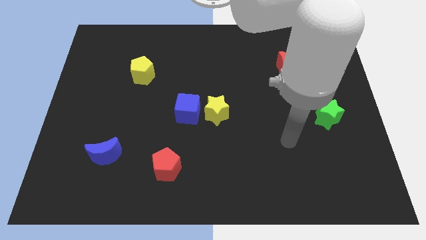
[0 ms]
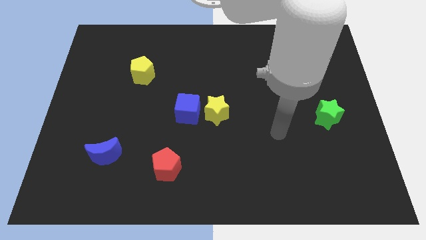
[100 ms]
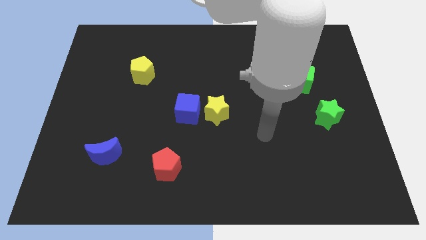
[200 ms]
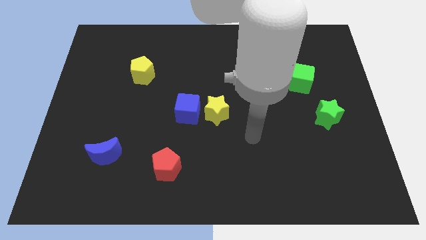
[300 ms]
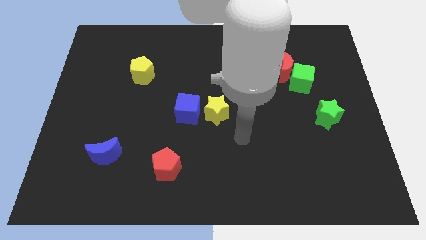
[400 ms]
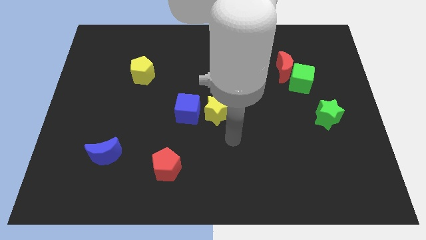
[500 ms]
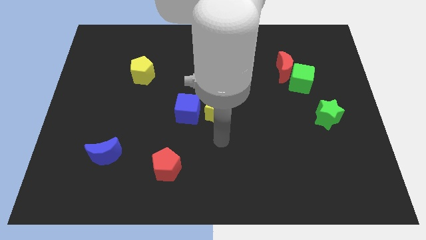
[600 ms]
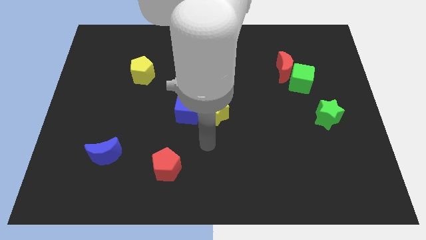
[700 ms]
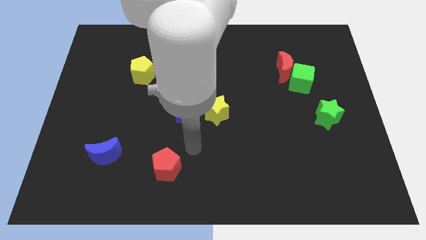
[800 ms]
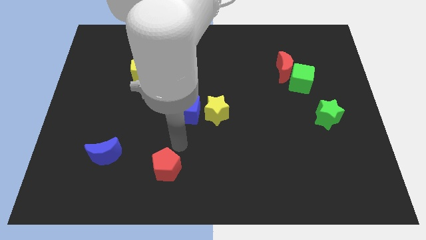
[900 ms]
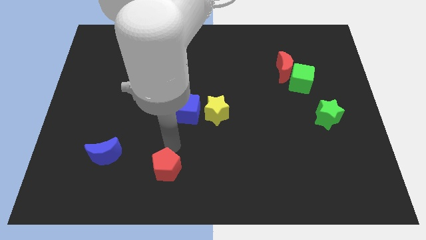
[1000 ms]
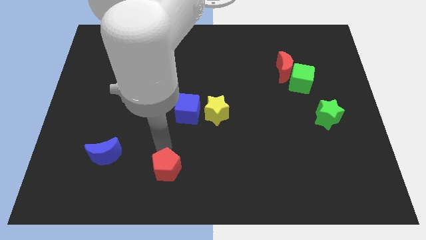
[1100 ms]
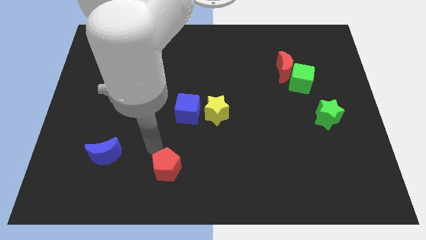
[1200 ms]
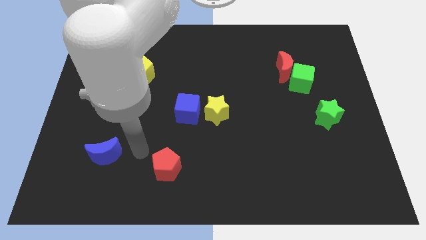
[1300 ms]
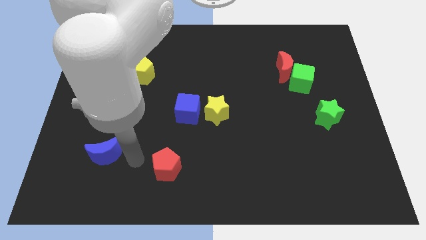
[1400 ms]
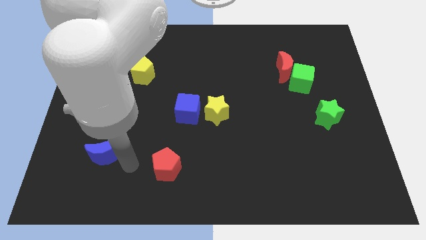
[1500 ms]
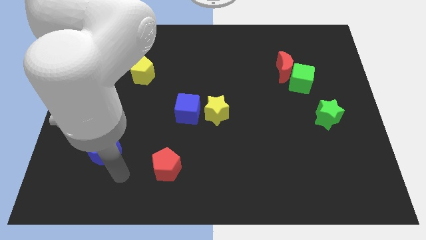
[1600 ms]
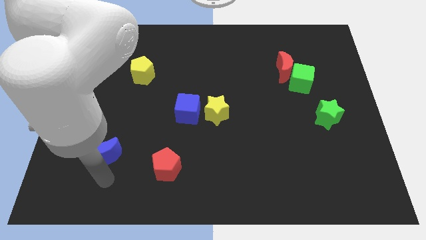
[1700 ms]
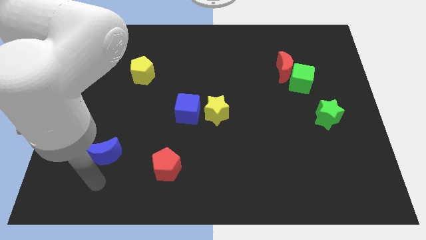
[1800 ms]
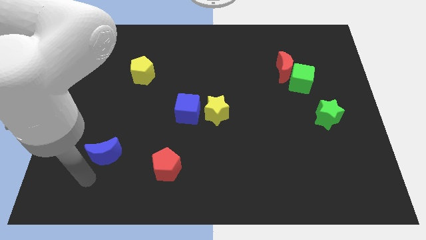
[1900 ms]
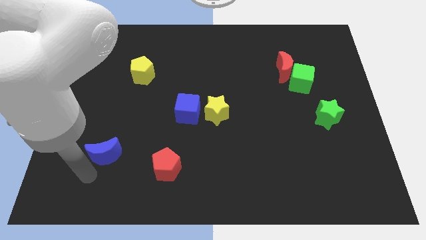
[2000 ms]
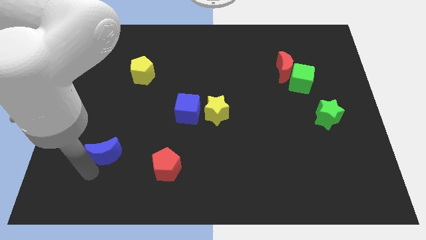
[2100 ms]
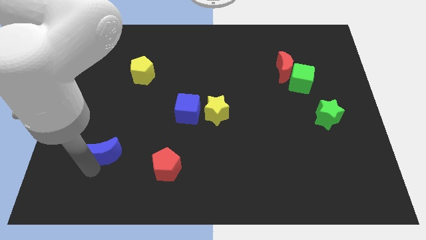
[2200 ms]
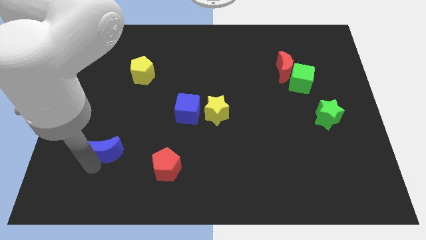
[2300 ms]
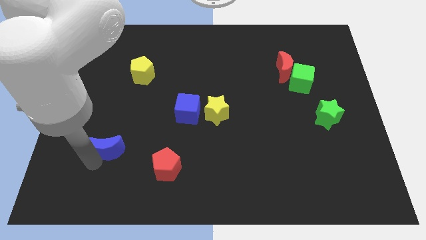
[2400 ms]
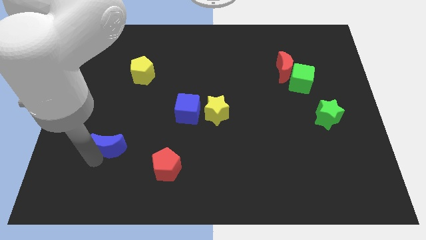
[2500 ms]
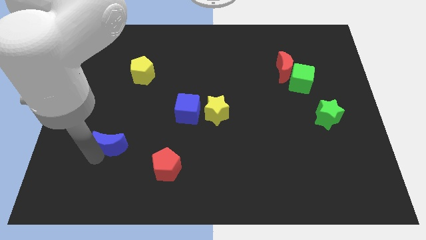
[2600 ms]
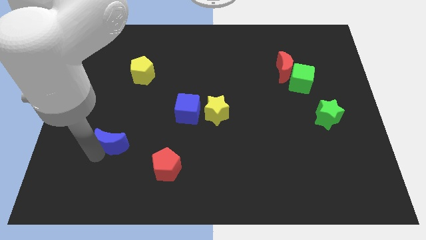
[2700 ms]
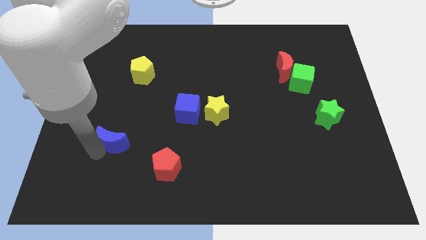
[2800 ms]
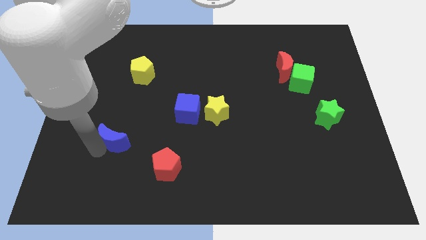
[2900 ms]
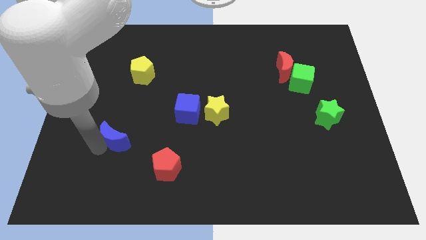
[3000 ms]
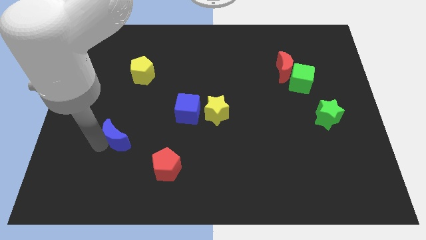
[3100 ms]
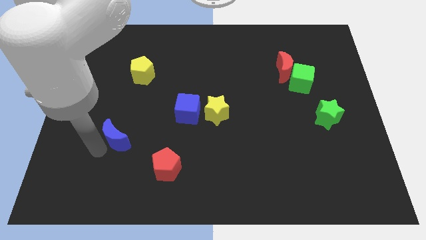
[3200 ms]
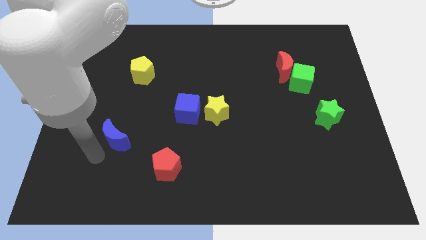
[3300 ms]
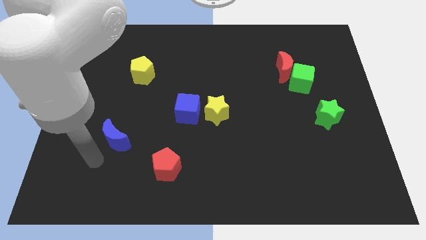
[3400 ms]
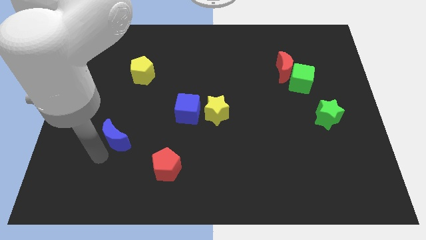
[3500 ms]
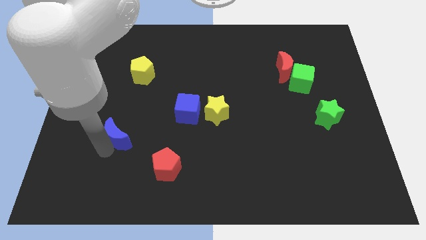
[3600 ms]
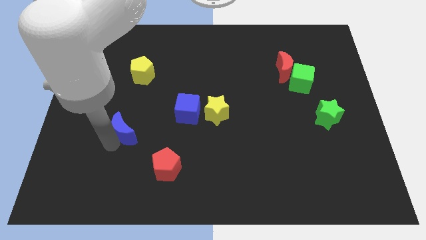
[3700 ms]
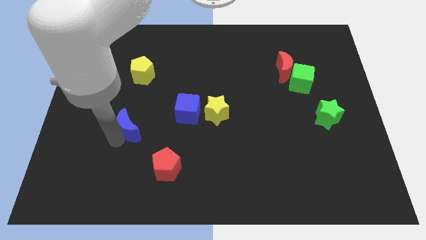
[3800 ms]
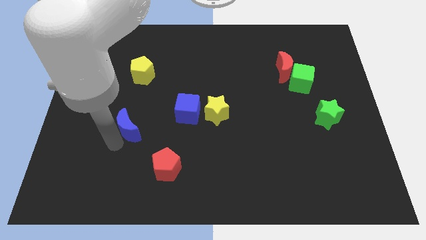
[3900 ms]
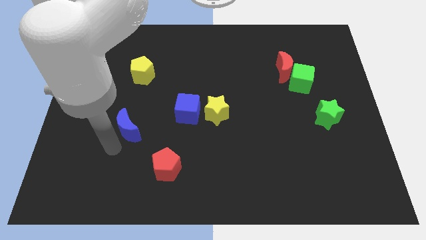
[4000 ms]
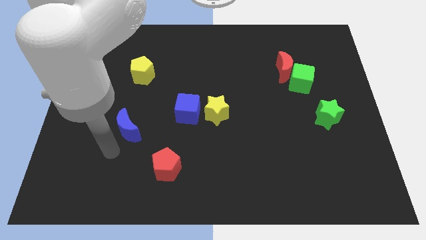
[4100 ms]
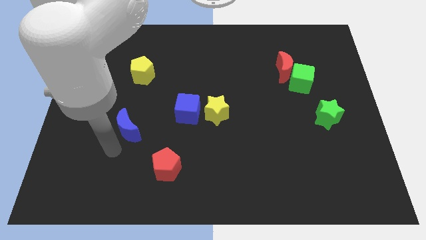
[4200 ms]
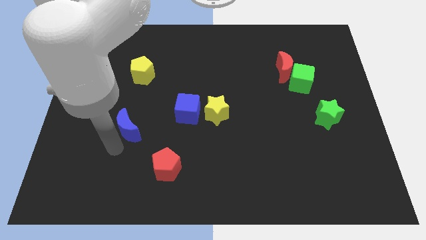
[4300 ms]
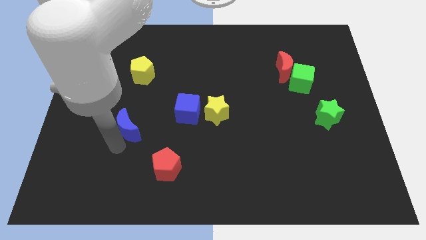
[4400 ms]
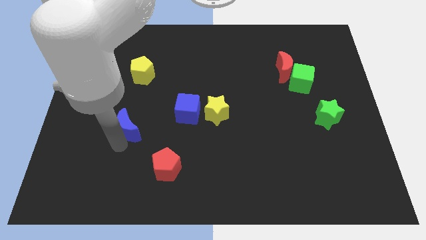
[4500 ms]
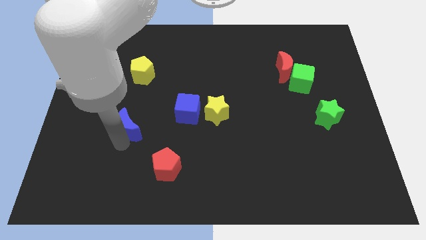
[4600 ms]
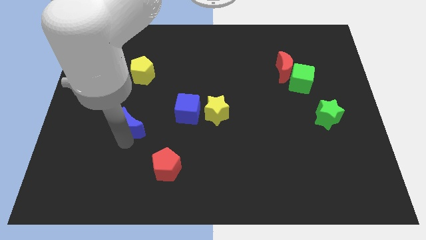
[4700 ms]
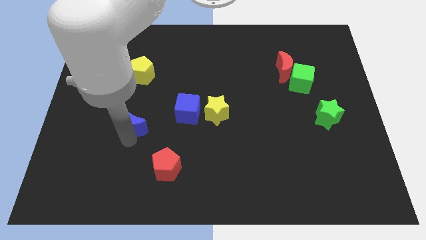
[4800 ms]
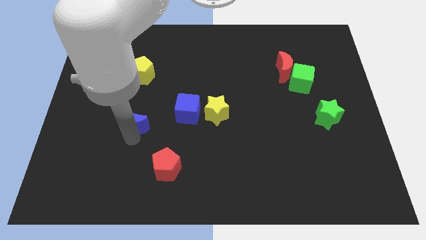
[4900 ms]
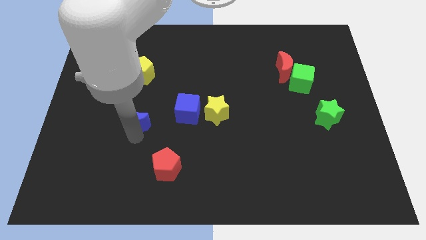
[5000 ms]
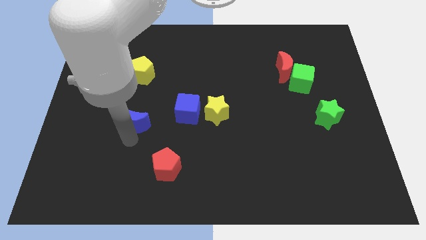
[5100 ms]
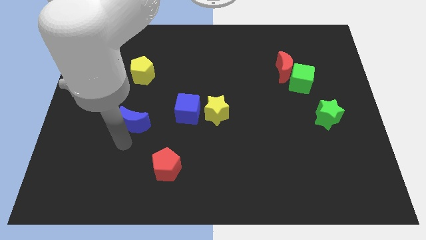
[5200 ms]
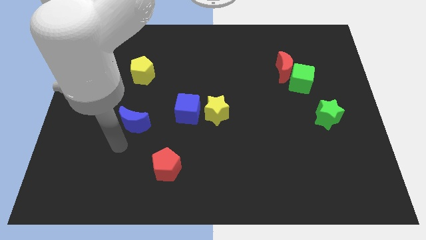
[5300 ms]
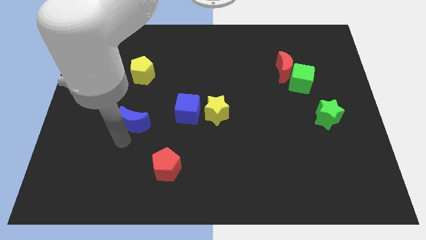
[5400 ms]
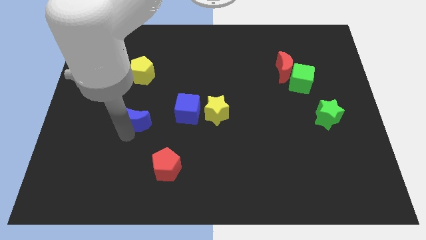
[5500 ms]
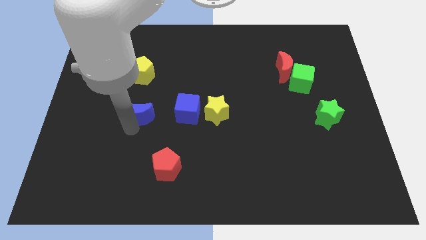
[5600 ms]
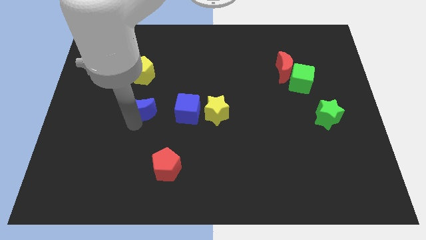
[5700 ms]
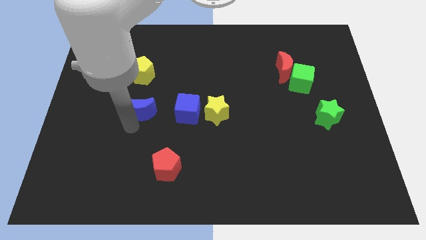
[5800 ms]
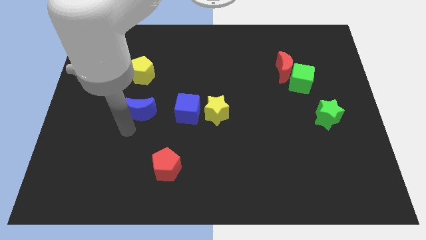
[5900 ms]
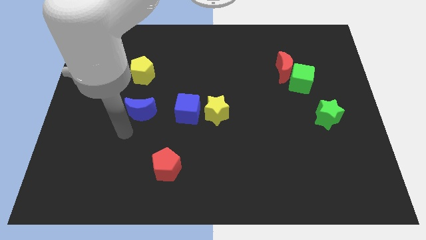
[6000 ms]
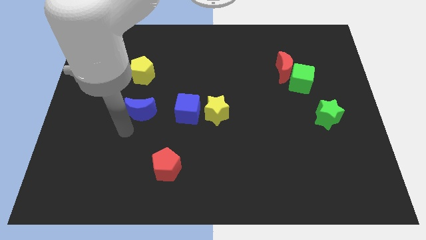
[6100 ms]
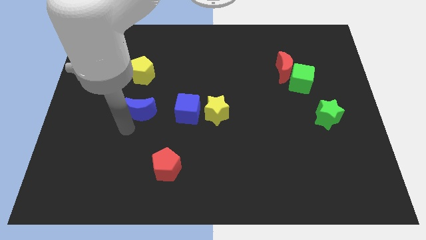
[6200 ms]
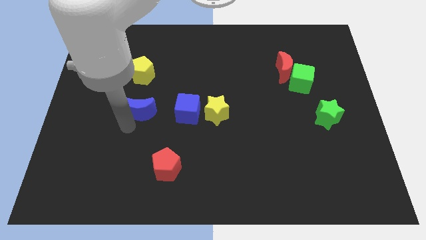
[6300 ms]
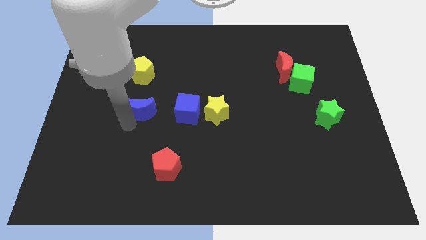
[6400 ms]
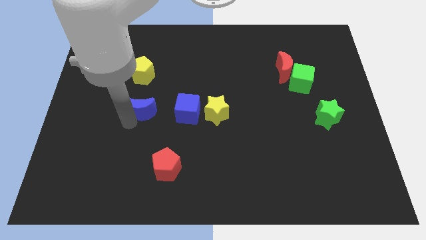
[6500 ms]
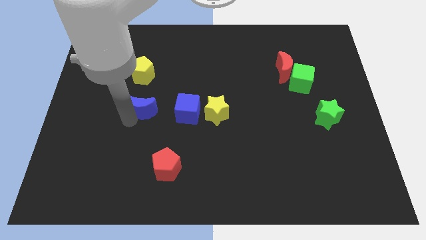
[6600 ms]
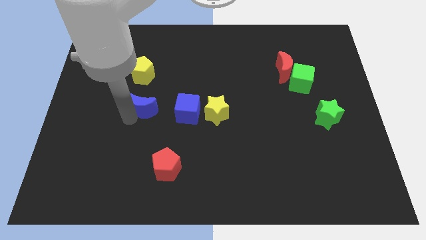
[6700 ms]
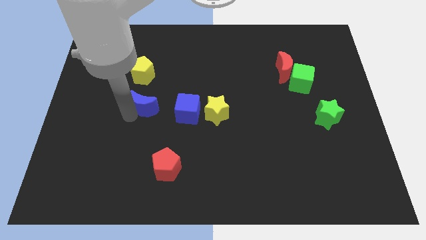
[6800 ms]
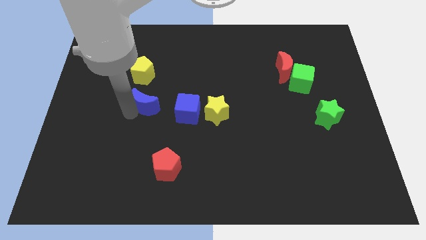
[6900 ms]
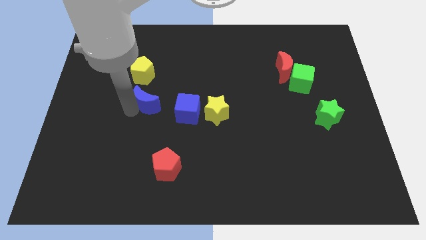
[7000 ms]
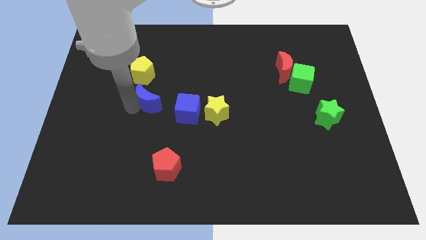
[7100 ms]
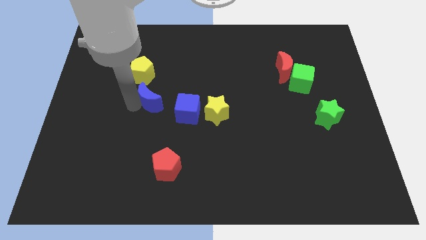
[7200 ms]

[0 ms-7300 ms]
slide the blue moon diagonally down and to the right of the yellow pentagon
